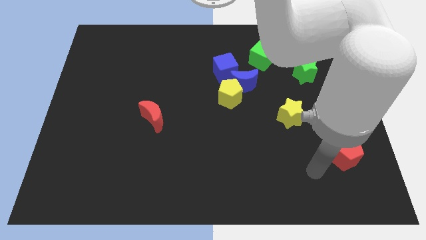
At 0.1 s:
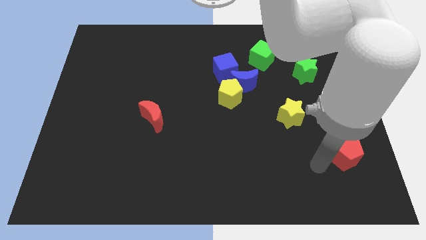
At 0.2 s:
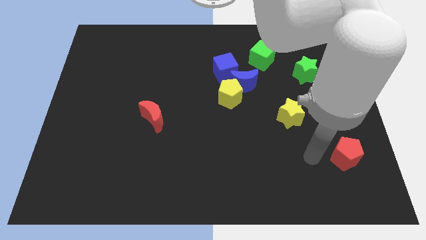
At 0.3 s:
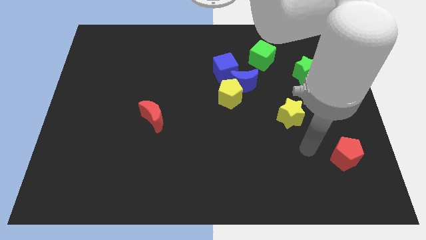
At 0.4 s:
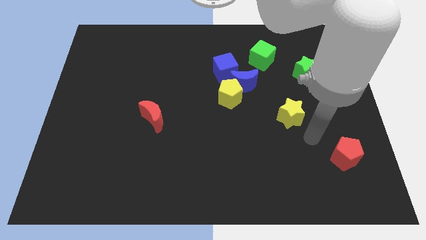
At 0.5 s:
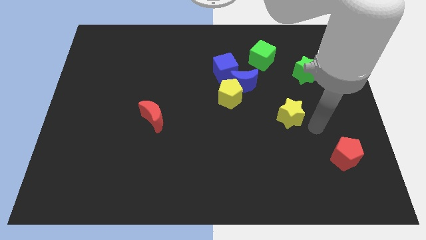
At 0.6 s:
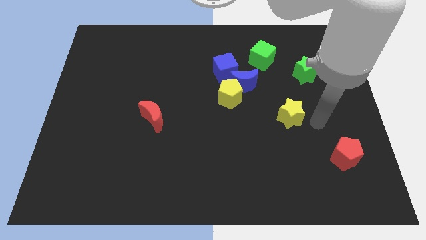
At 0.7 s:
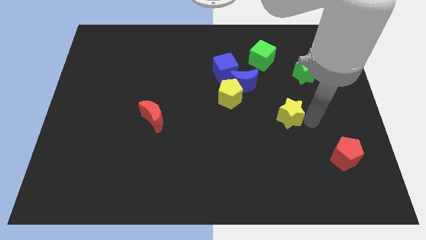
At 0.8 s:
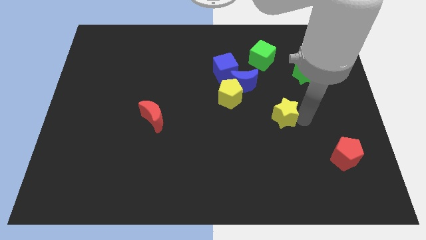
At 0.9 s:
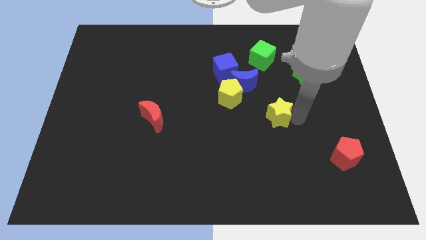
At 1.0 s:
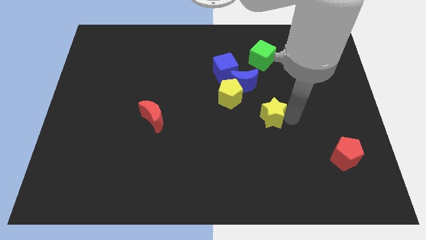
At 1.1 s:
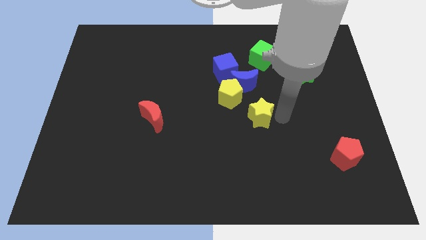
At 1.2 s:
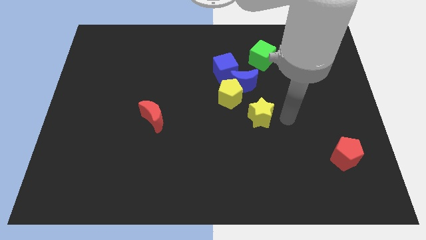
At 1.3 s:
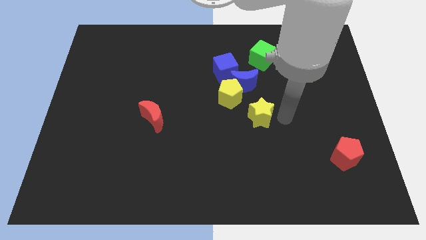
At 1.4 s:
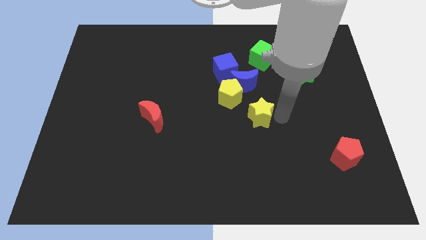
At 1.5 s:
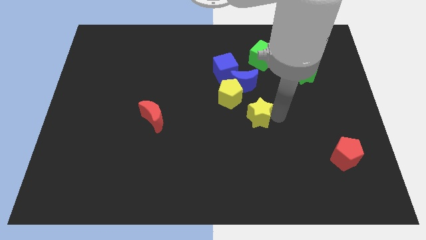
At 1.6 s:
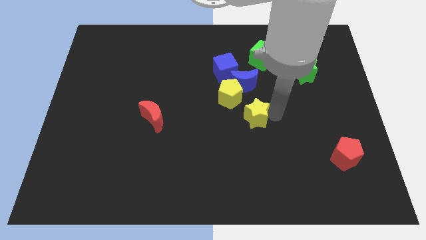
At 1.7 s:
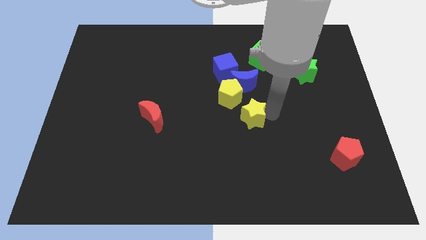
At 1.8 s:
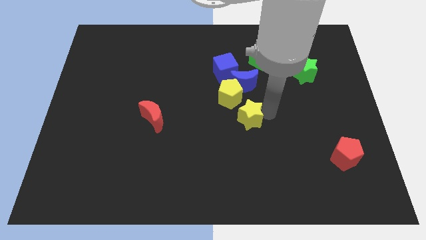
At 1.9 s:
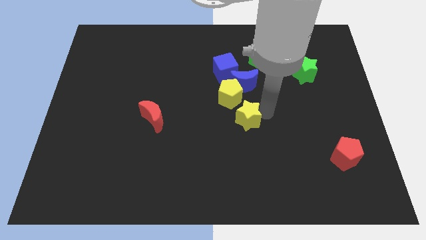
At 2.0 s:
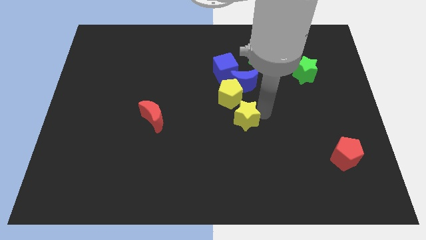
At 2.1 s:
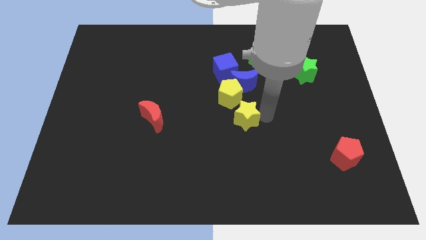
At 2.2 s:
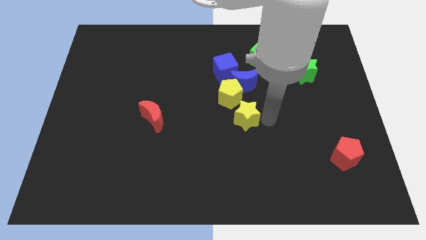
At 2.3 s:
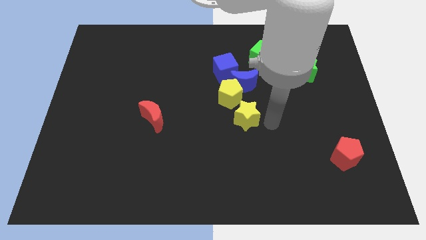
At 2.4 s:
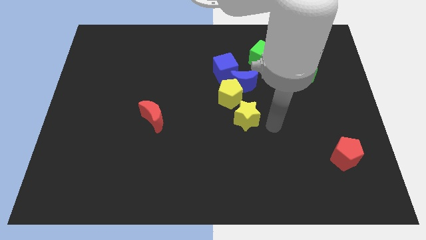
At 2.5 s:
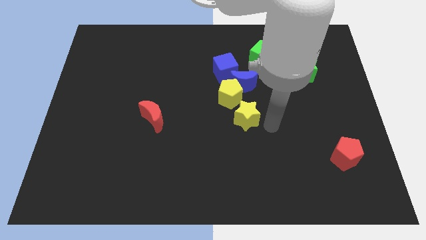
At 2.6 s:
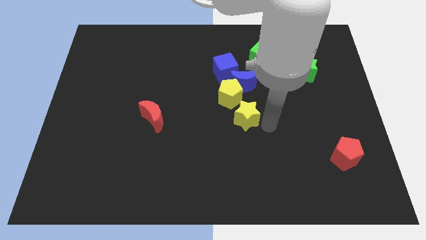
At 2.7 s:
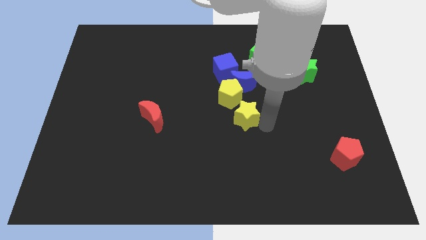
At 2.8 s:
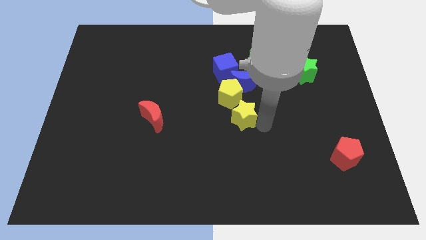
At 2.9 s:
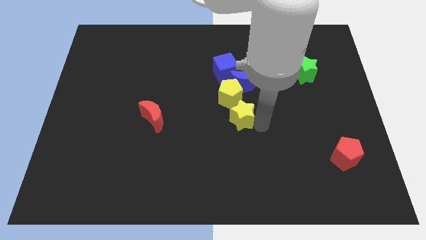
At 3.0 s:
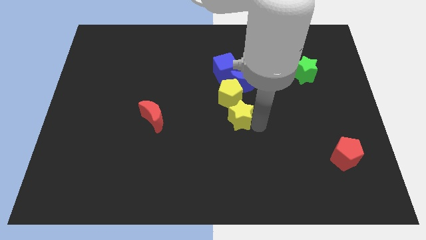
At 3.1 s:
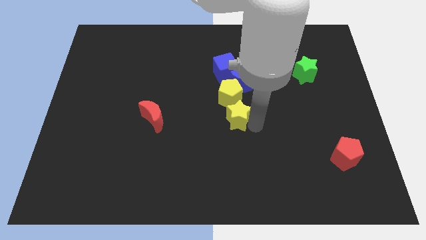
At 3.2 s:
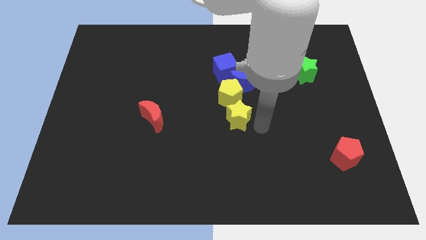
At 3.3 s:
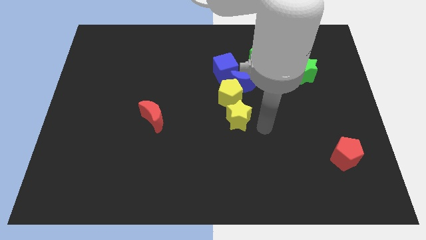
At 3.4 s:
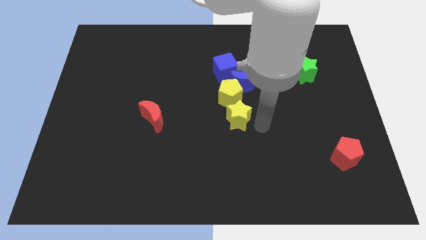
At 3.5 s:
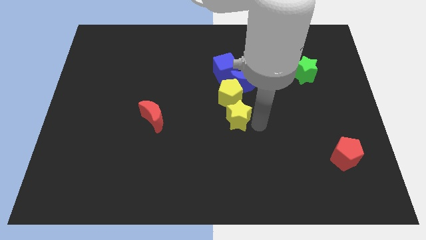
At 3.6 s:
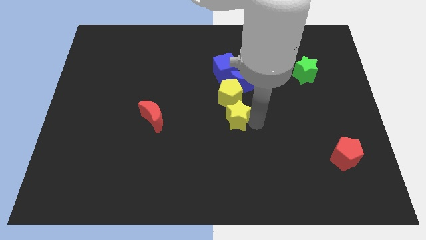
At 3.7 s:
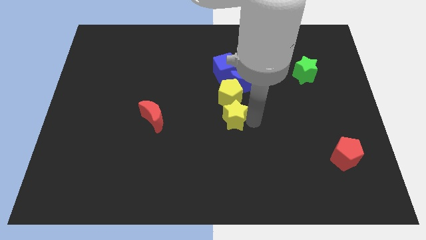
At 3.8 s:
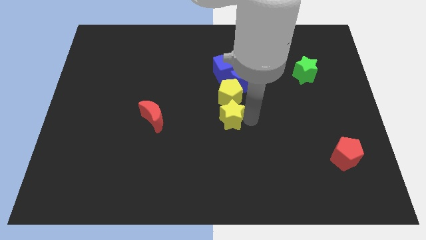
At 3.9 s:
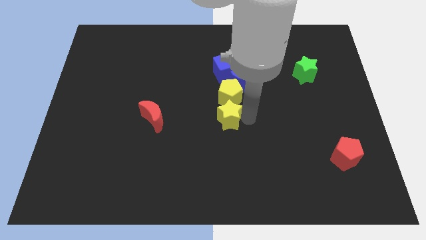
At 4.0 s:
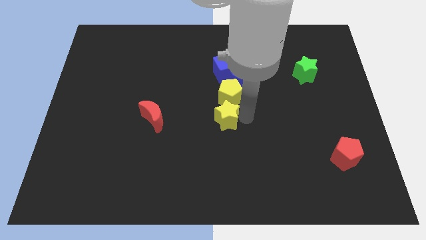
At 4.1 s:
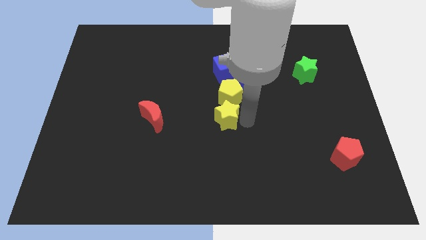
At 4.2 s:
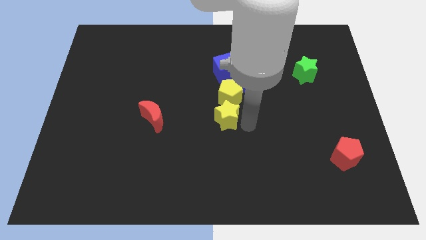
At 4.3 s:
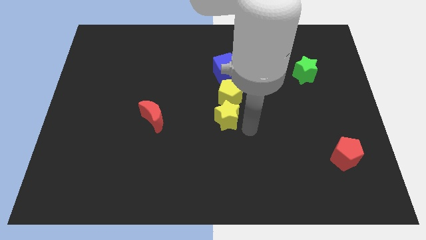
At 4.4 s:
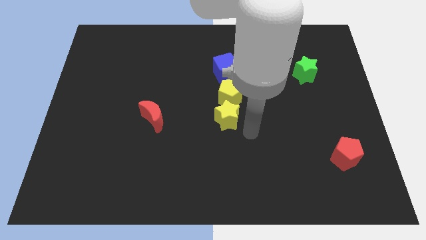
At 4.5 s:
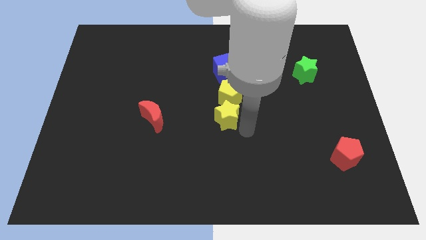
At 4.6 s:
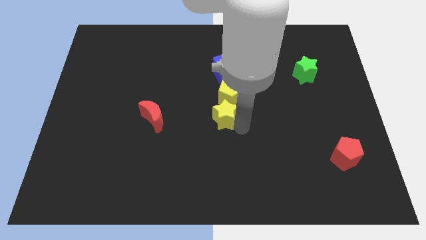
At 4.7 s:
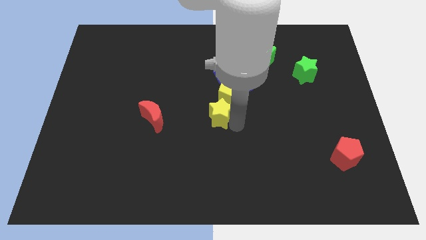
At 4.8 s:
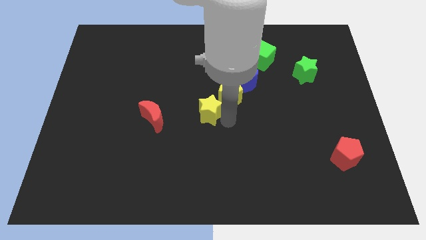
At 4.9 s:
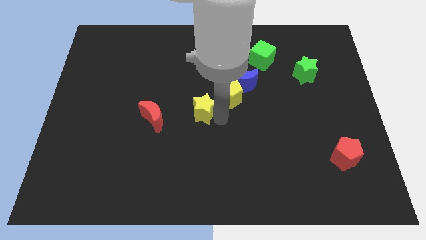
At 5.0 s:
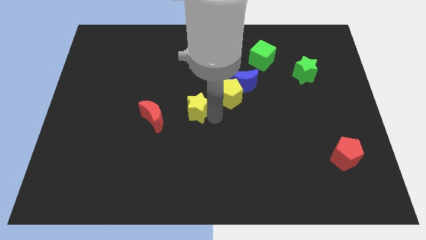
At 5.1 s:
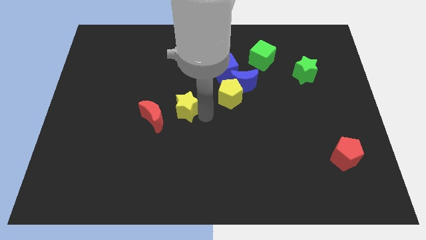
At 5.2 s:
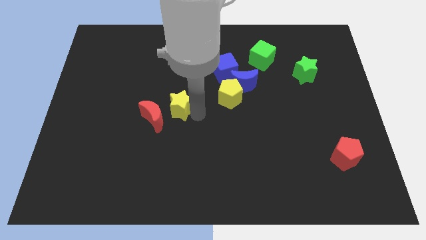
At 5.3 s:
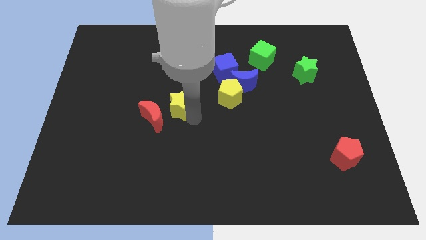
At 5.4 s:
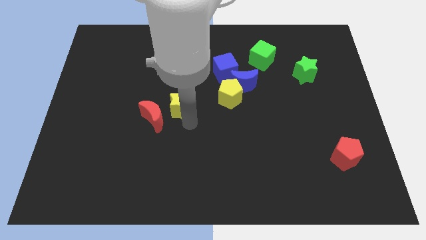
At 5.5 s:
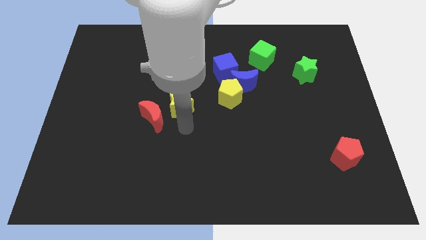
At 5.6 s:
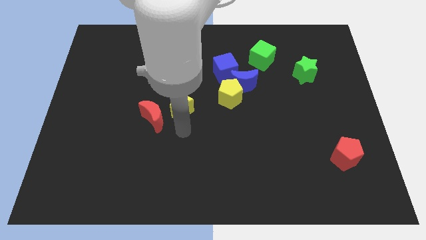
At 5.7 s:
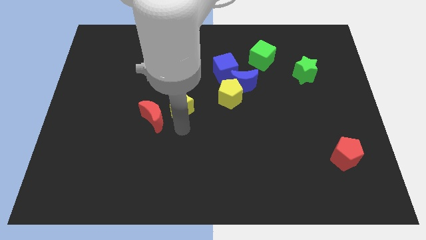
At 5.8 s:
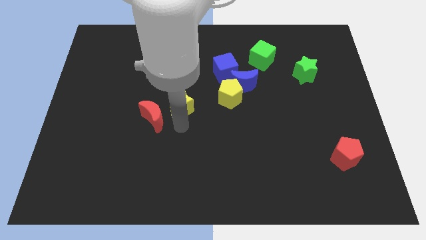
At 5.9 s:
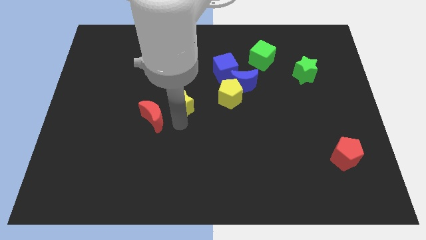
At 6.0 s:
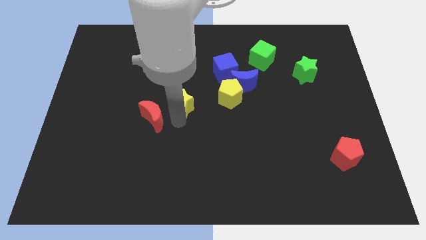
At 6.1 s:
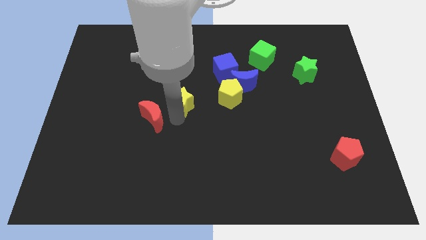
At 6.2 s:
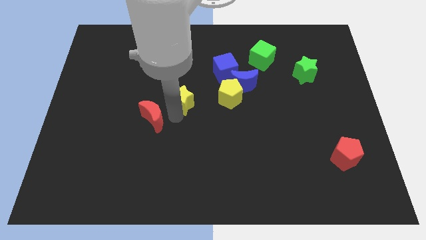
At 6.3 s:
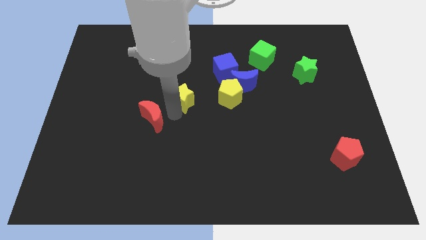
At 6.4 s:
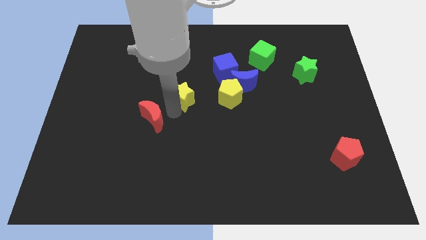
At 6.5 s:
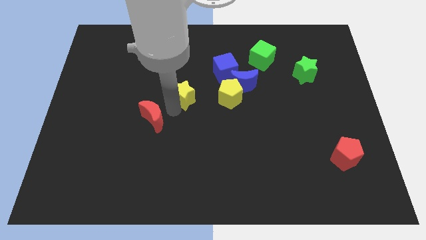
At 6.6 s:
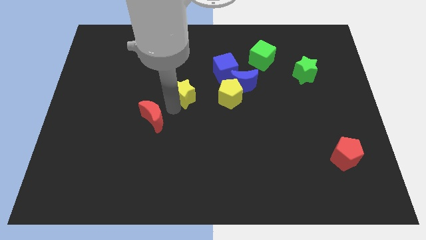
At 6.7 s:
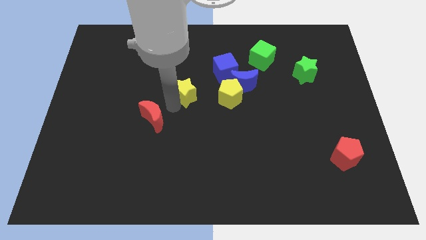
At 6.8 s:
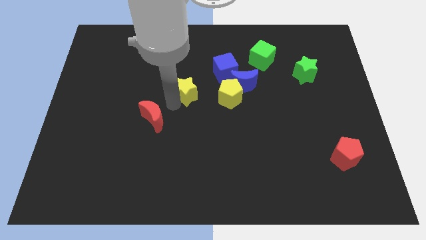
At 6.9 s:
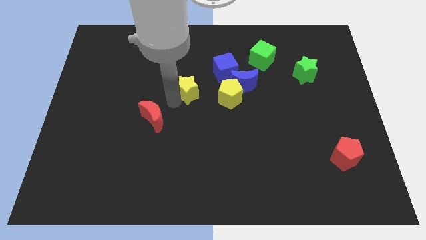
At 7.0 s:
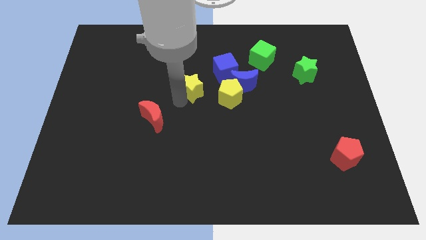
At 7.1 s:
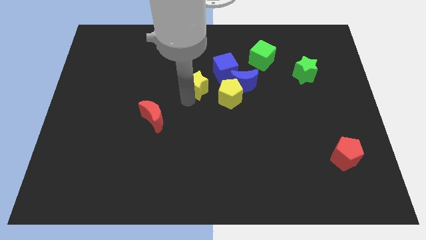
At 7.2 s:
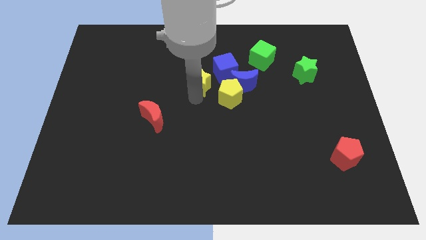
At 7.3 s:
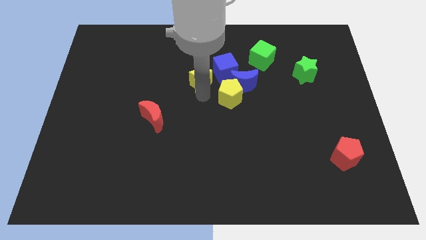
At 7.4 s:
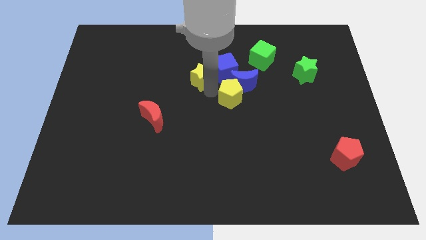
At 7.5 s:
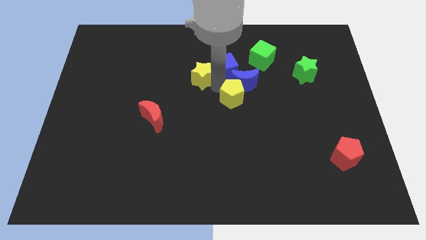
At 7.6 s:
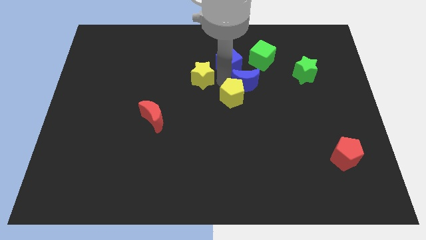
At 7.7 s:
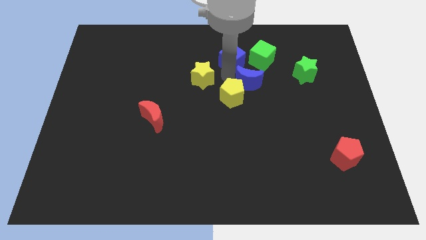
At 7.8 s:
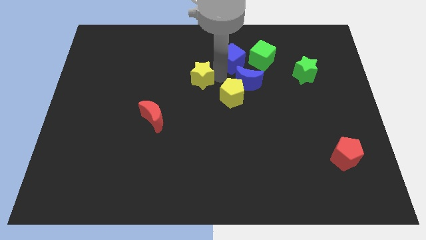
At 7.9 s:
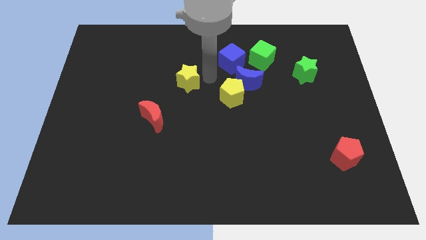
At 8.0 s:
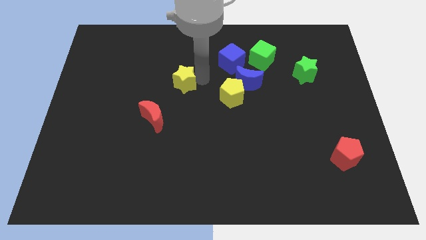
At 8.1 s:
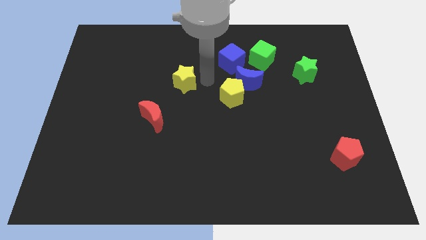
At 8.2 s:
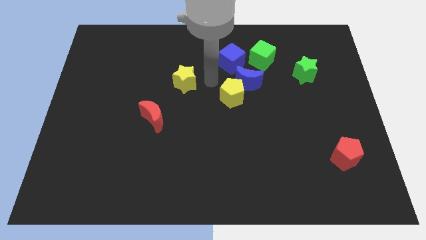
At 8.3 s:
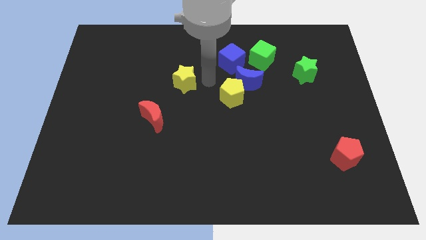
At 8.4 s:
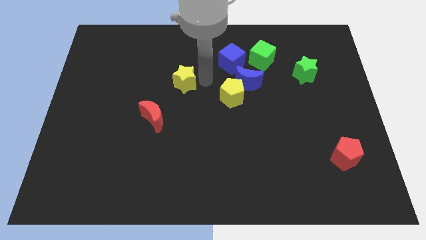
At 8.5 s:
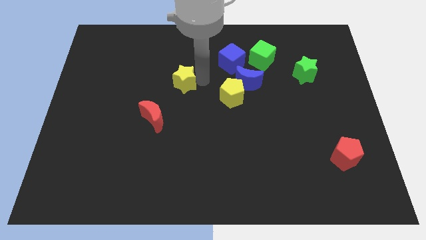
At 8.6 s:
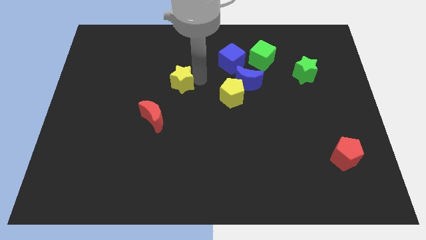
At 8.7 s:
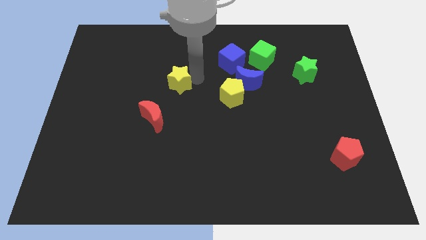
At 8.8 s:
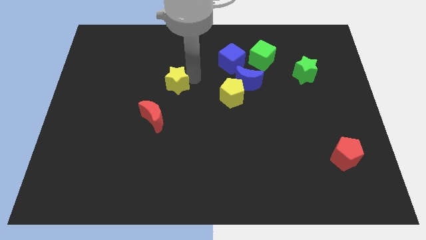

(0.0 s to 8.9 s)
push the yellow star to the top of the red moon
